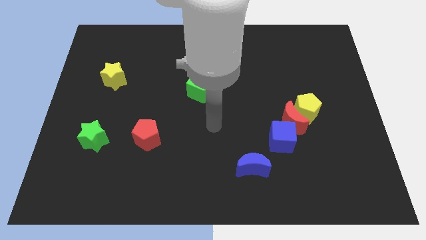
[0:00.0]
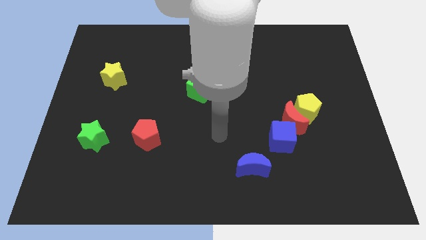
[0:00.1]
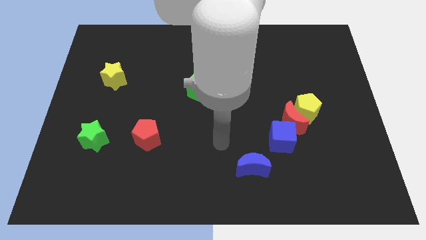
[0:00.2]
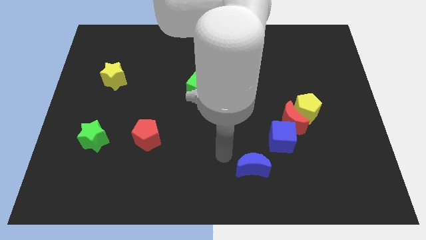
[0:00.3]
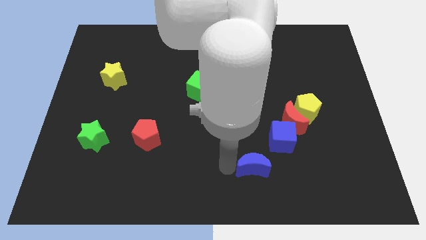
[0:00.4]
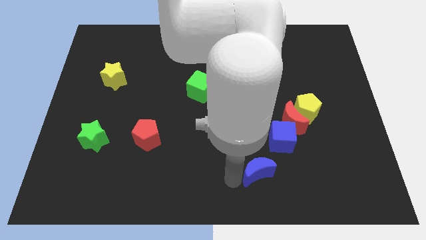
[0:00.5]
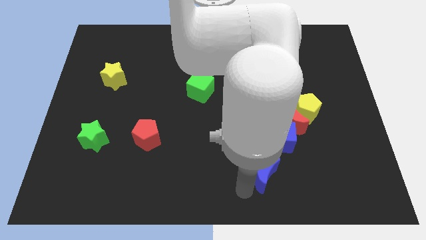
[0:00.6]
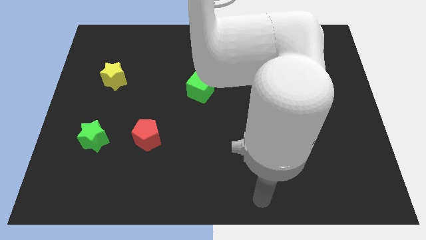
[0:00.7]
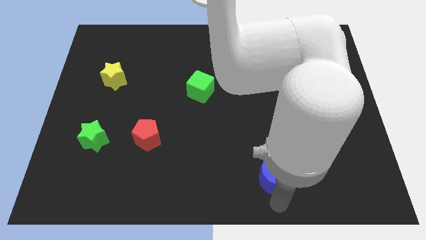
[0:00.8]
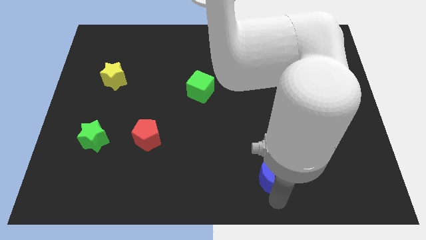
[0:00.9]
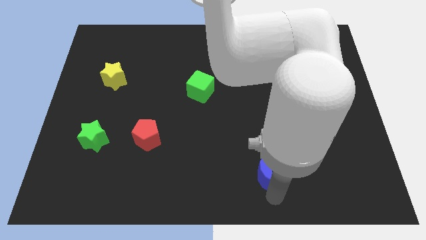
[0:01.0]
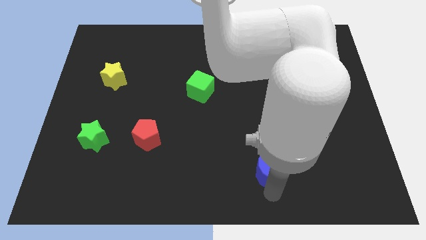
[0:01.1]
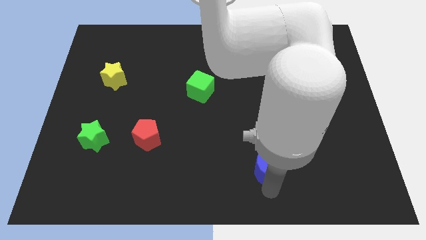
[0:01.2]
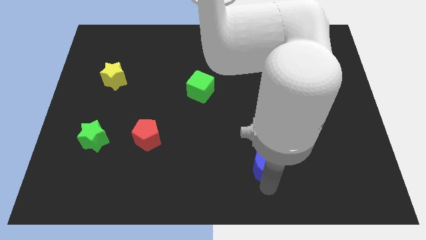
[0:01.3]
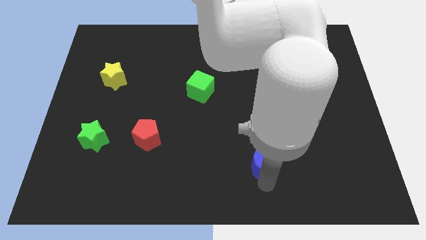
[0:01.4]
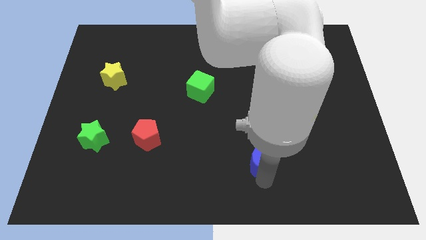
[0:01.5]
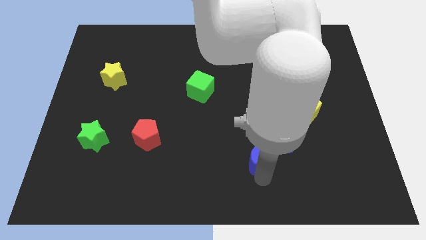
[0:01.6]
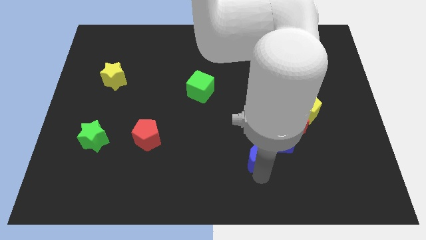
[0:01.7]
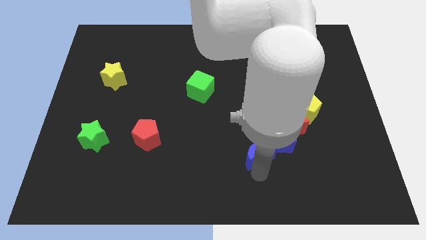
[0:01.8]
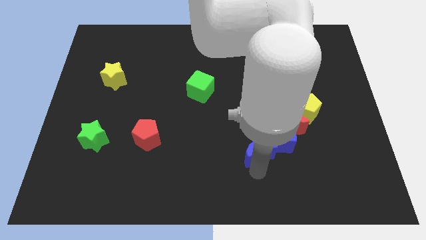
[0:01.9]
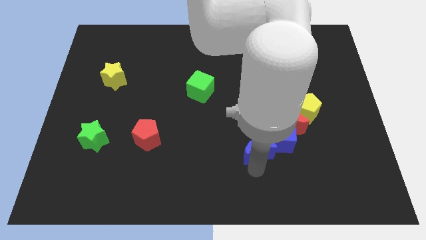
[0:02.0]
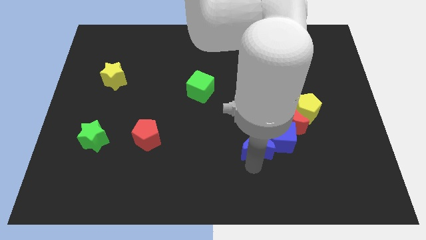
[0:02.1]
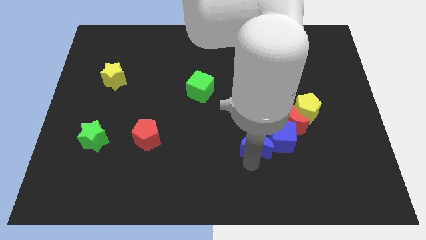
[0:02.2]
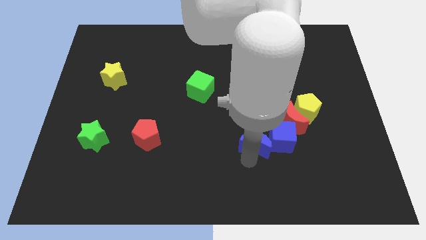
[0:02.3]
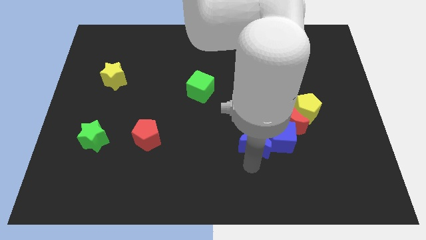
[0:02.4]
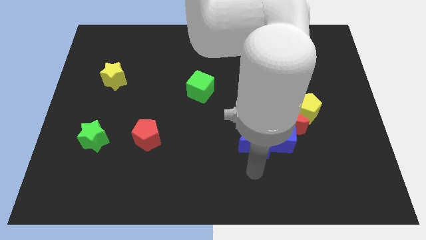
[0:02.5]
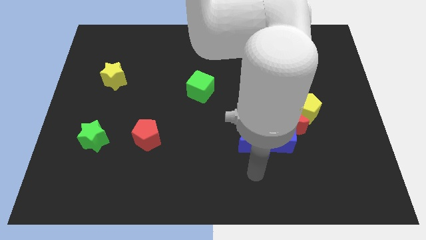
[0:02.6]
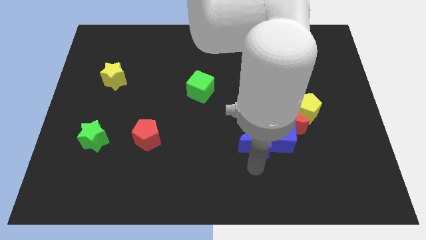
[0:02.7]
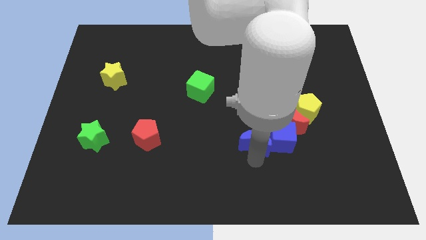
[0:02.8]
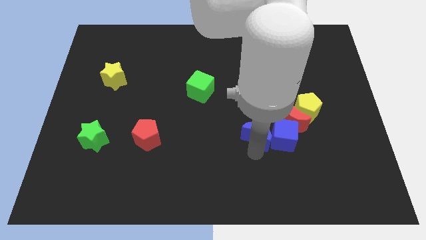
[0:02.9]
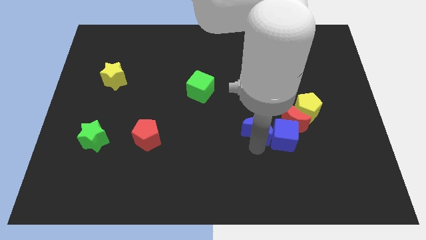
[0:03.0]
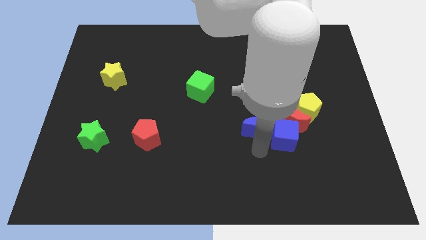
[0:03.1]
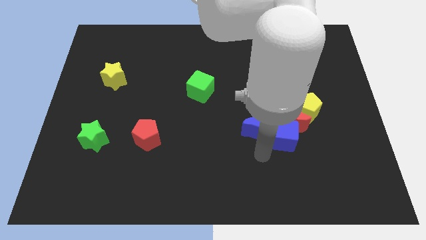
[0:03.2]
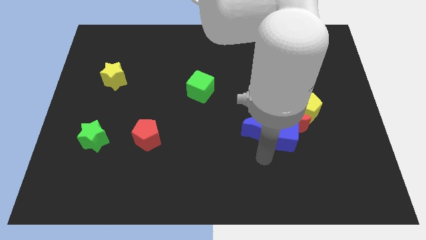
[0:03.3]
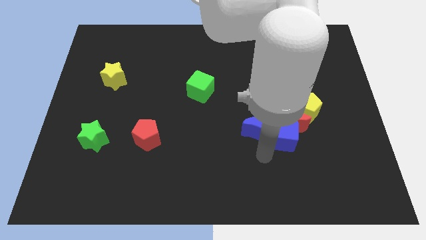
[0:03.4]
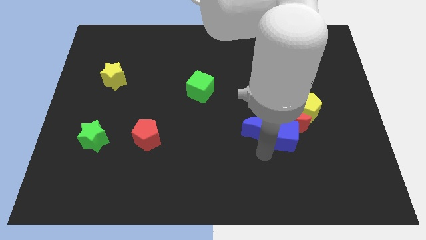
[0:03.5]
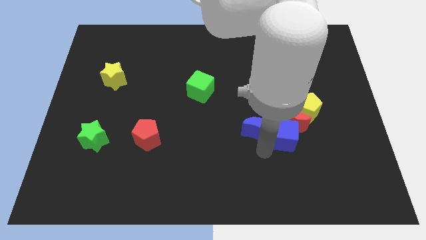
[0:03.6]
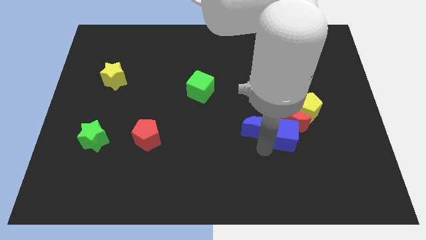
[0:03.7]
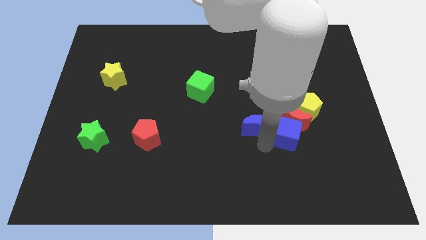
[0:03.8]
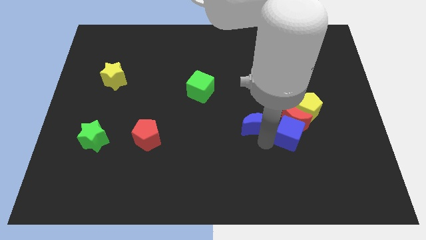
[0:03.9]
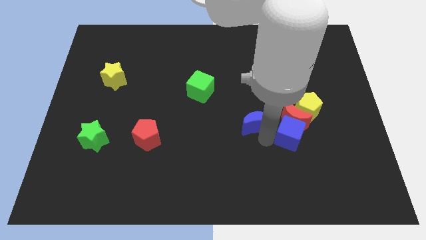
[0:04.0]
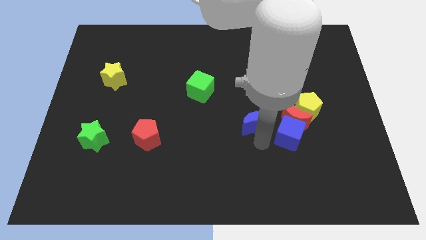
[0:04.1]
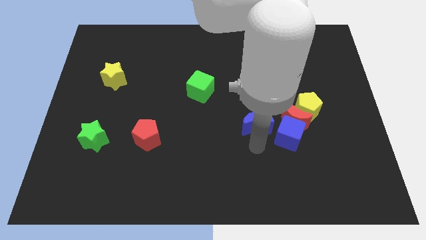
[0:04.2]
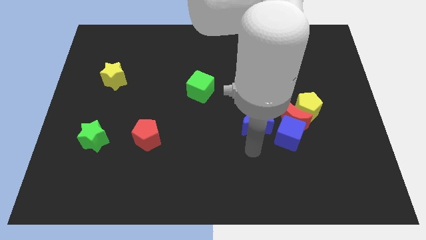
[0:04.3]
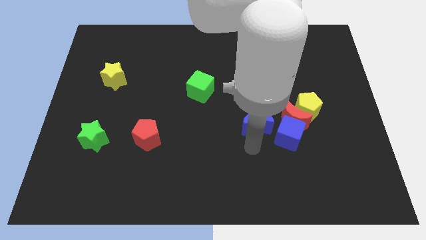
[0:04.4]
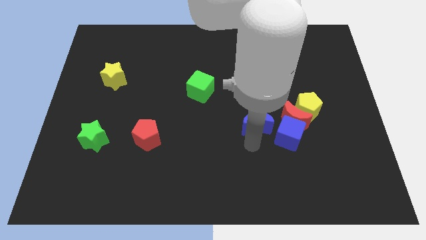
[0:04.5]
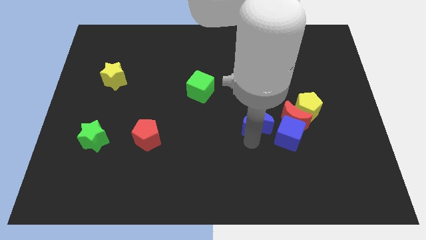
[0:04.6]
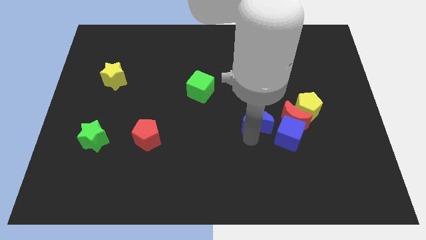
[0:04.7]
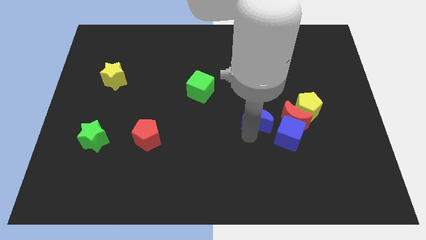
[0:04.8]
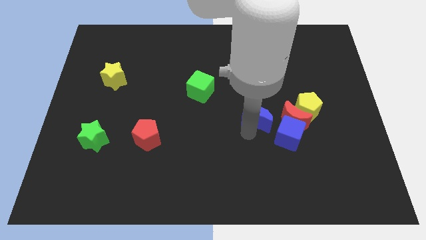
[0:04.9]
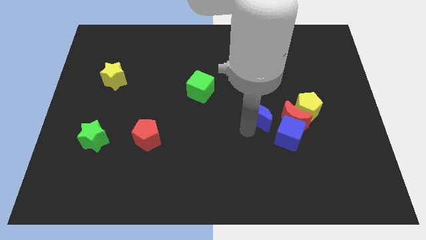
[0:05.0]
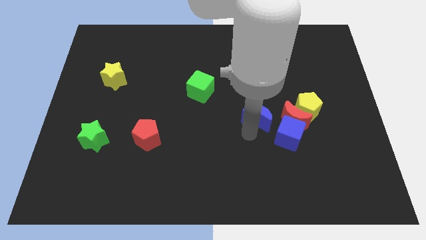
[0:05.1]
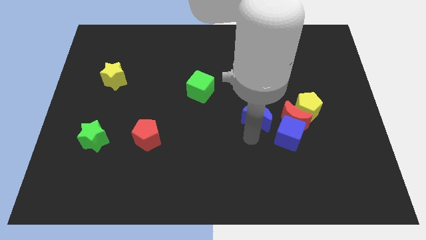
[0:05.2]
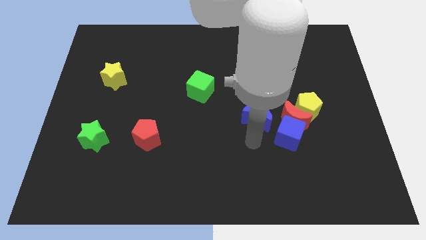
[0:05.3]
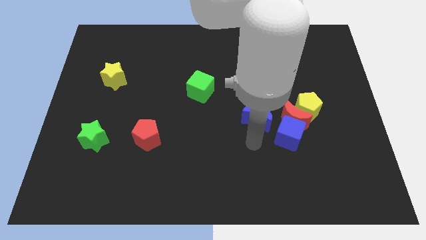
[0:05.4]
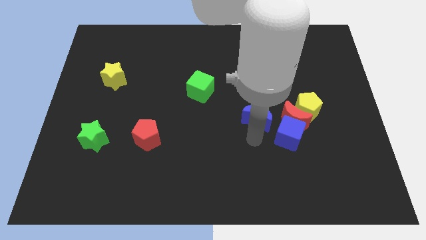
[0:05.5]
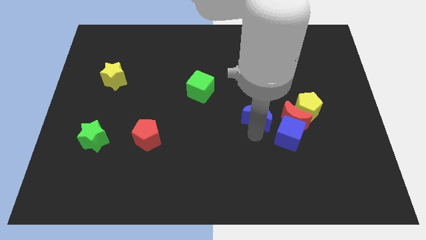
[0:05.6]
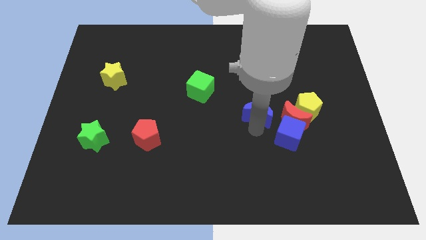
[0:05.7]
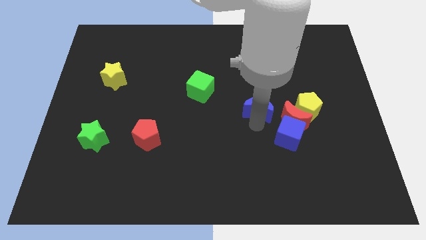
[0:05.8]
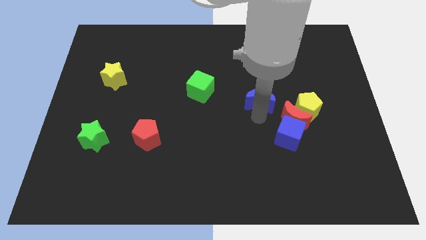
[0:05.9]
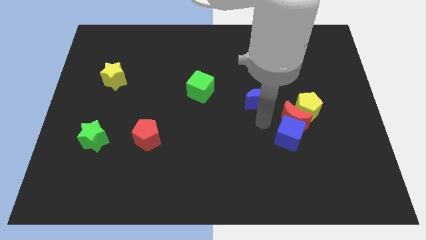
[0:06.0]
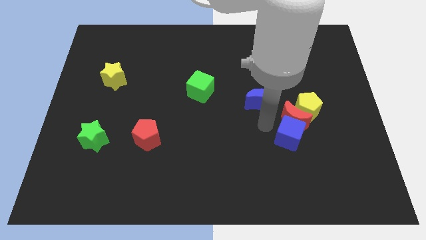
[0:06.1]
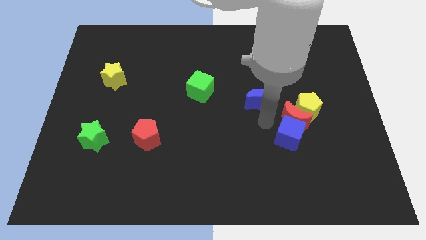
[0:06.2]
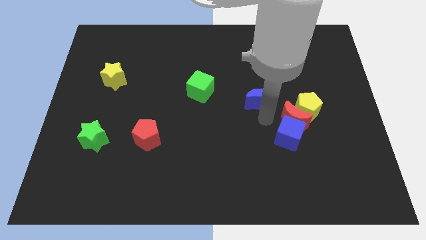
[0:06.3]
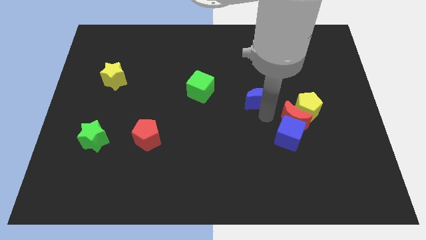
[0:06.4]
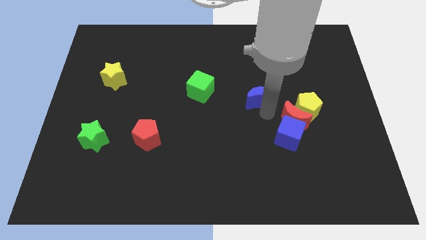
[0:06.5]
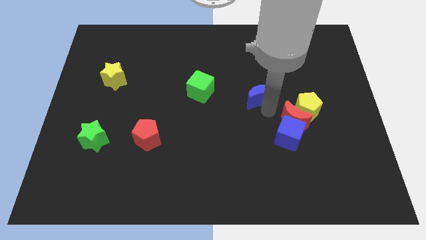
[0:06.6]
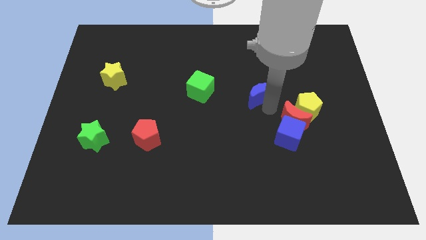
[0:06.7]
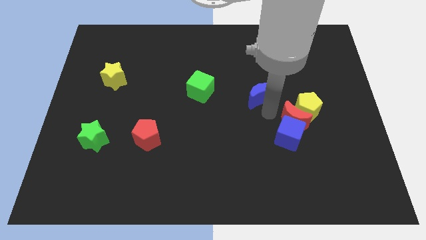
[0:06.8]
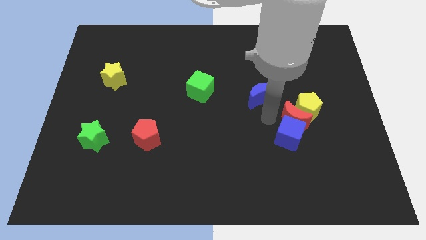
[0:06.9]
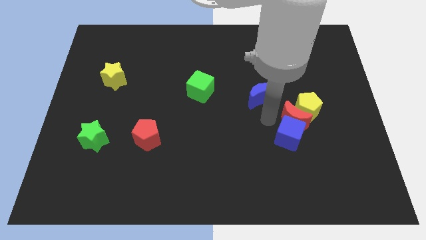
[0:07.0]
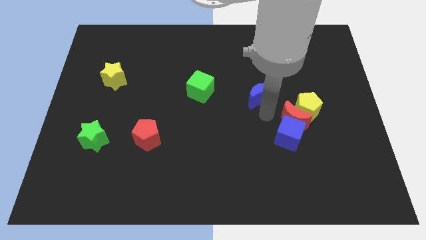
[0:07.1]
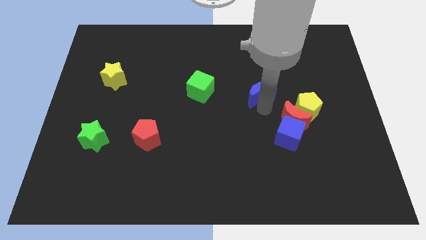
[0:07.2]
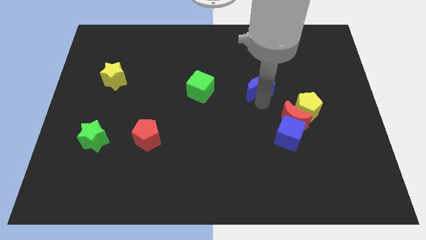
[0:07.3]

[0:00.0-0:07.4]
push the blue moon up

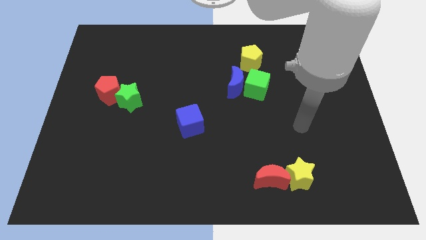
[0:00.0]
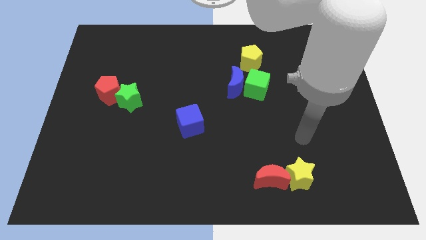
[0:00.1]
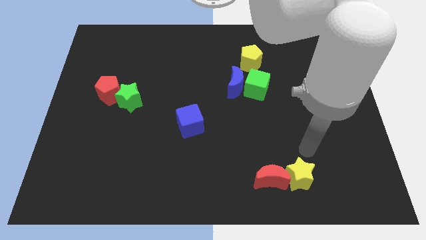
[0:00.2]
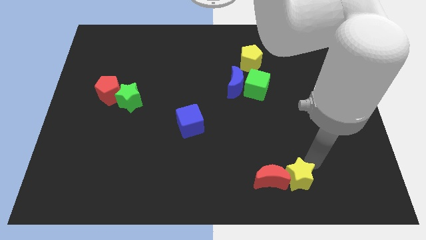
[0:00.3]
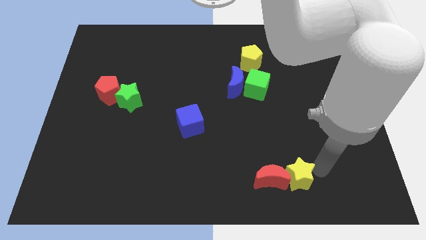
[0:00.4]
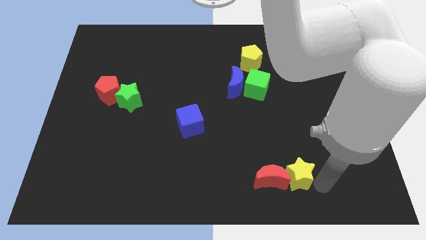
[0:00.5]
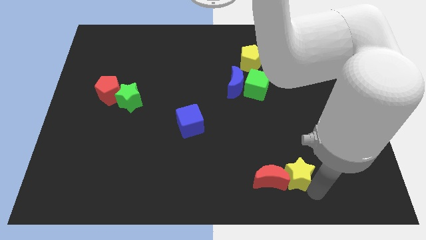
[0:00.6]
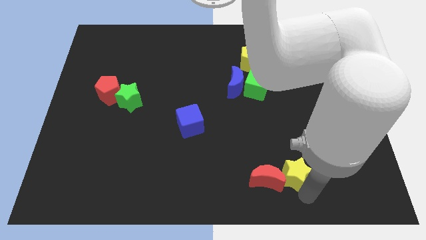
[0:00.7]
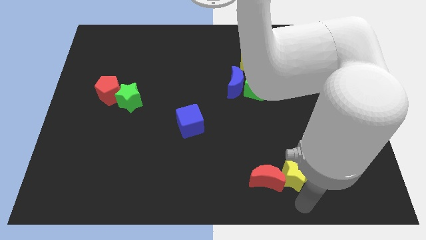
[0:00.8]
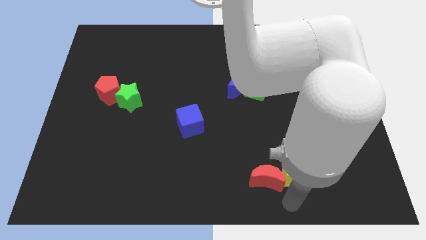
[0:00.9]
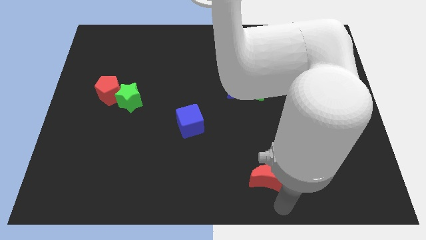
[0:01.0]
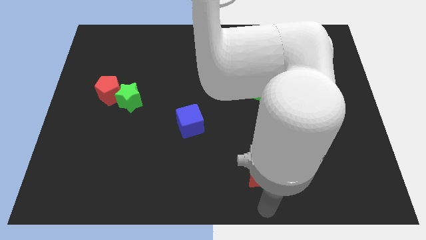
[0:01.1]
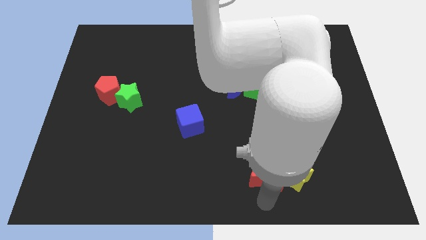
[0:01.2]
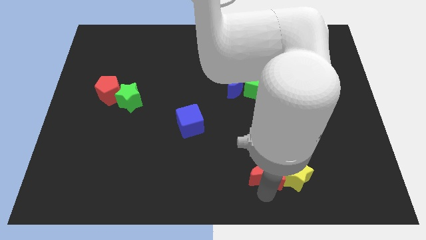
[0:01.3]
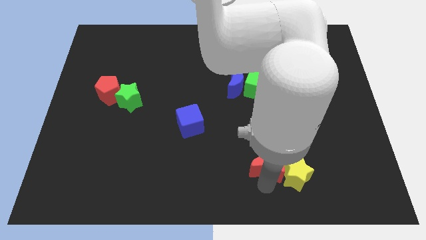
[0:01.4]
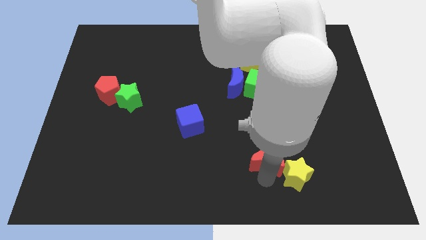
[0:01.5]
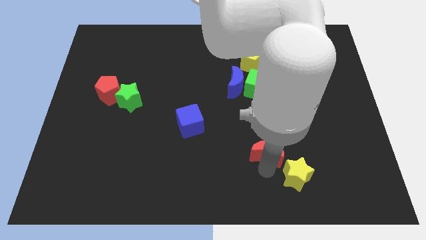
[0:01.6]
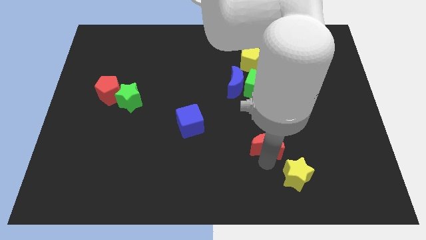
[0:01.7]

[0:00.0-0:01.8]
move the red moon upwards slightly
